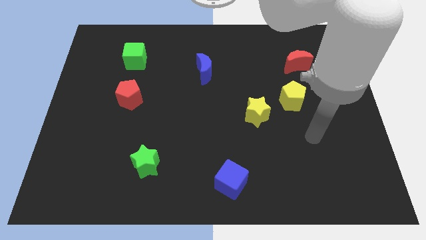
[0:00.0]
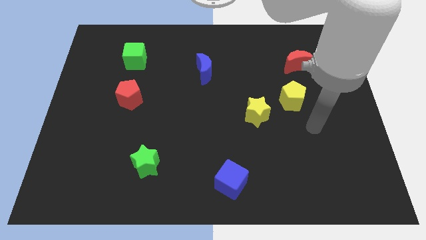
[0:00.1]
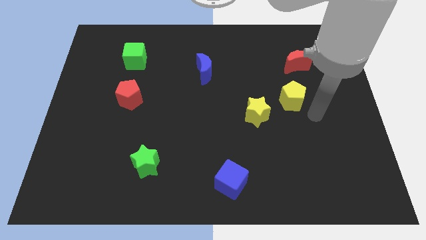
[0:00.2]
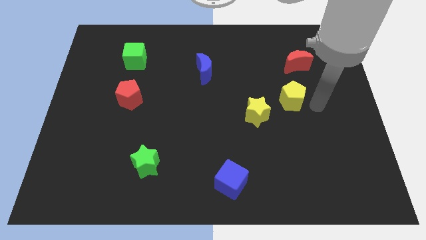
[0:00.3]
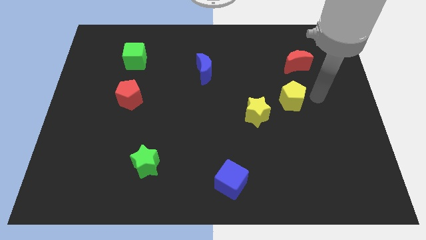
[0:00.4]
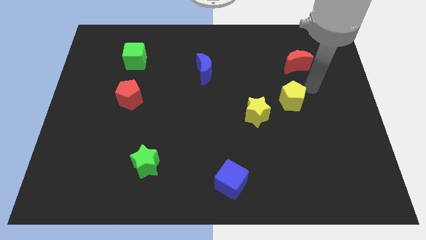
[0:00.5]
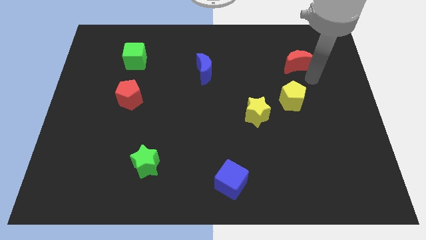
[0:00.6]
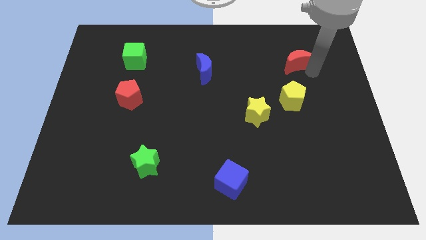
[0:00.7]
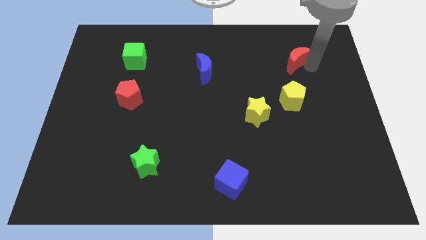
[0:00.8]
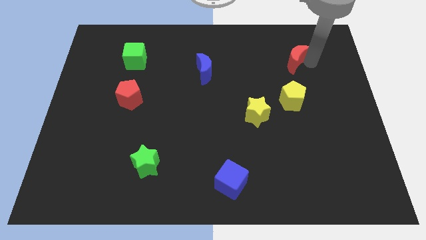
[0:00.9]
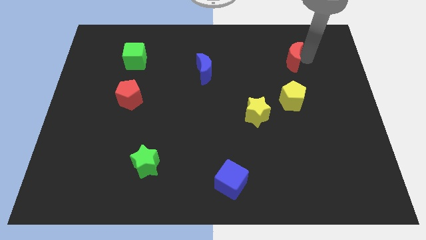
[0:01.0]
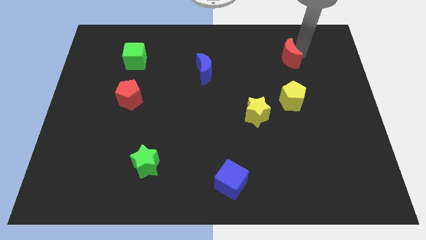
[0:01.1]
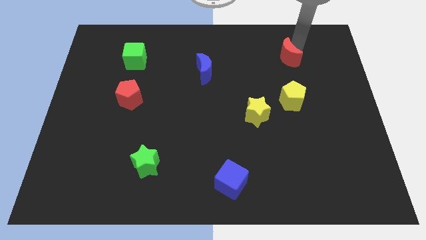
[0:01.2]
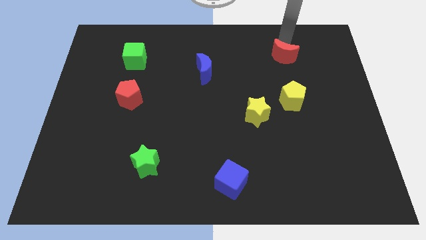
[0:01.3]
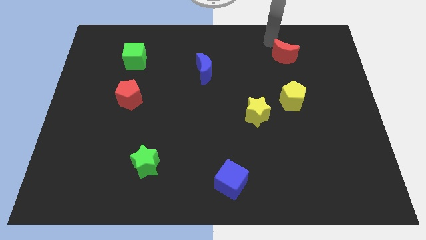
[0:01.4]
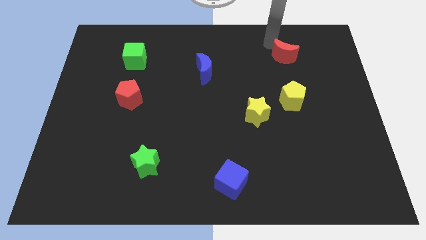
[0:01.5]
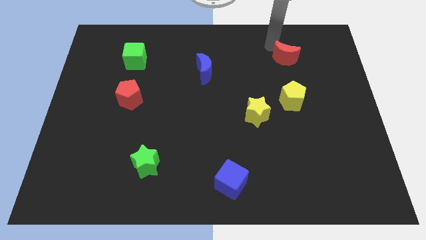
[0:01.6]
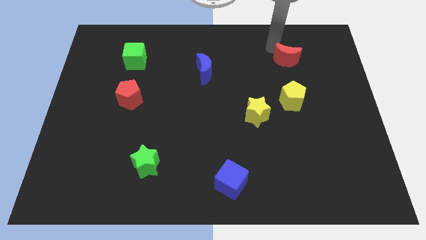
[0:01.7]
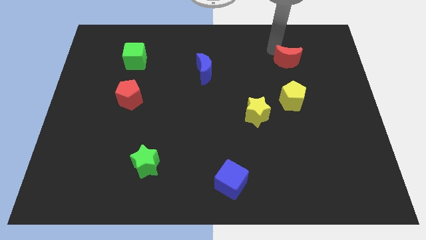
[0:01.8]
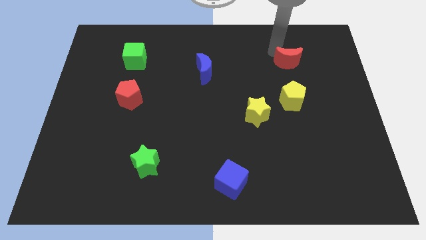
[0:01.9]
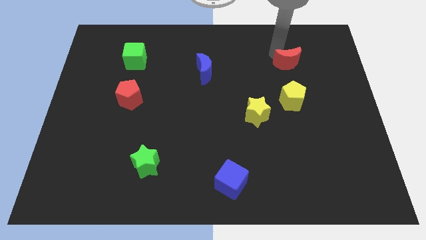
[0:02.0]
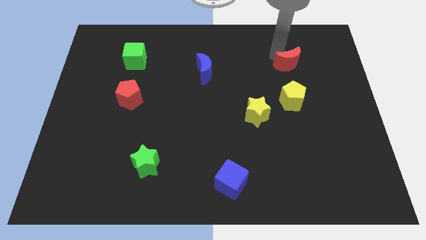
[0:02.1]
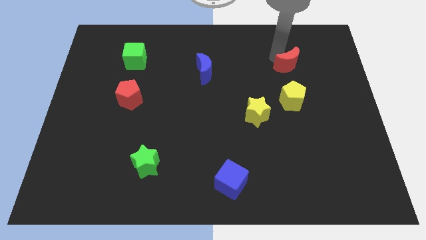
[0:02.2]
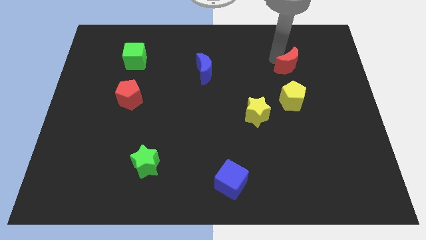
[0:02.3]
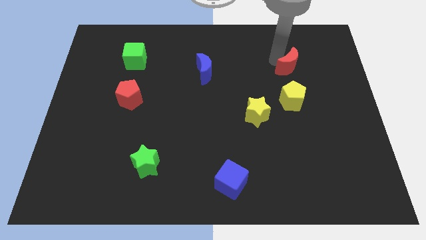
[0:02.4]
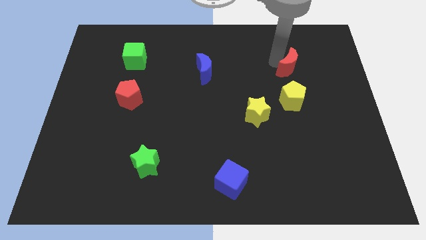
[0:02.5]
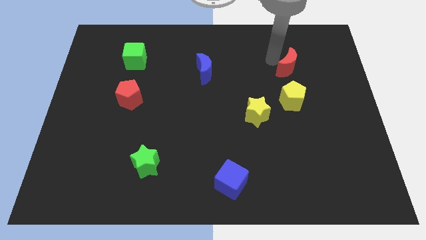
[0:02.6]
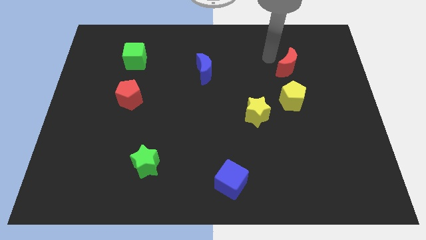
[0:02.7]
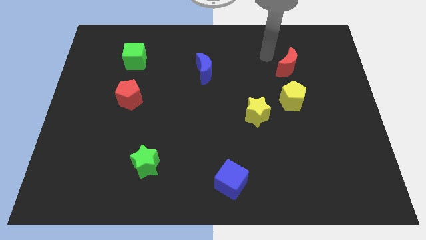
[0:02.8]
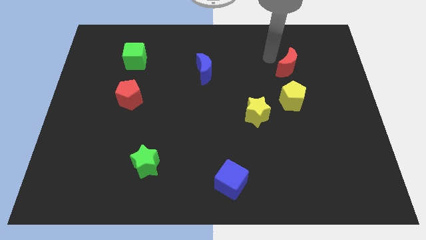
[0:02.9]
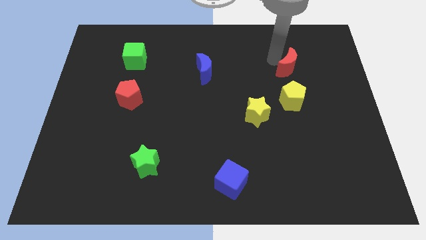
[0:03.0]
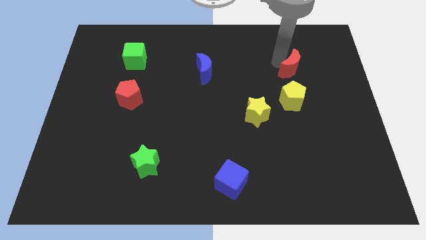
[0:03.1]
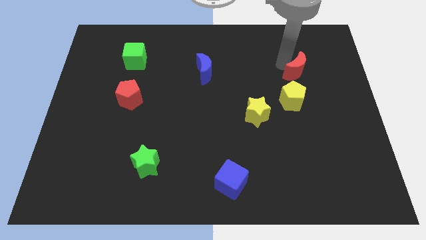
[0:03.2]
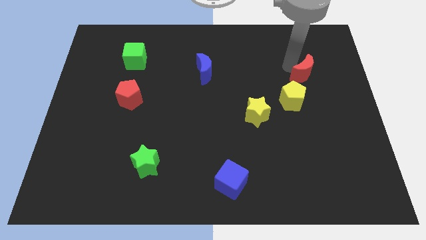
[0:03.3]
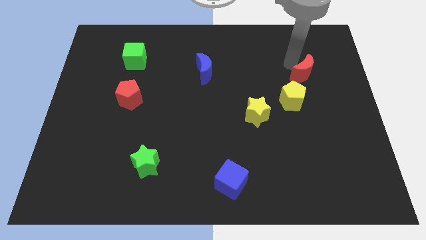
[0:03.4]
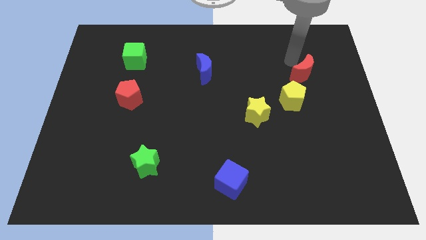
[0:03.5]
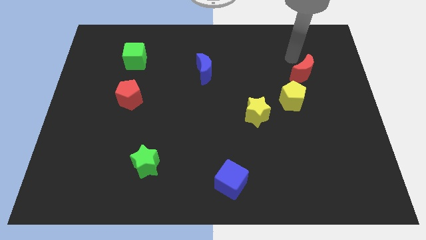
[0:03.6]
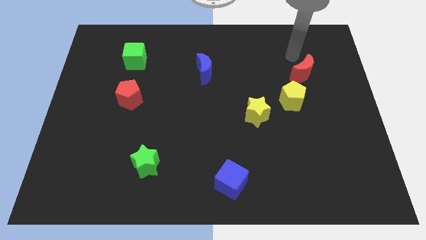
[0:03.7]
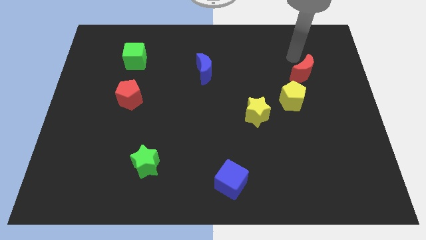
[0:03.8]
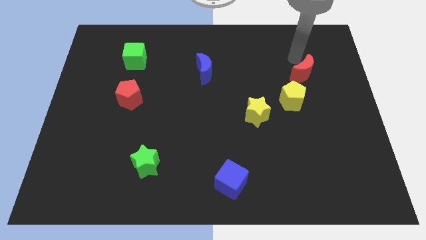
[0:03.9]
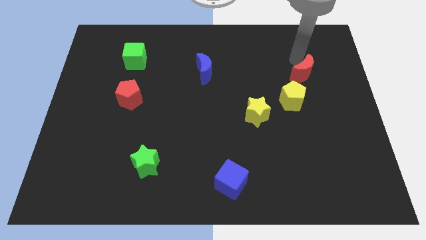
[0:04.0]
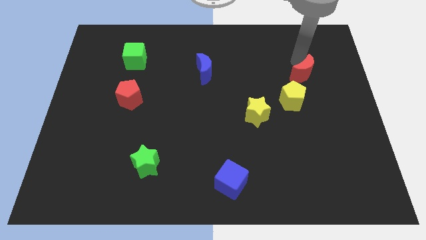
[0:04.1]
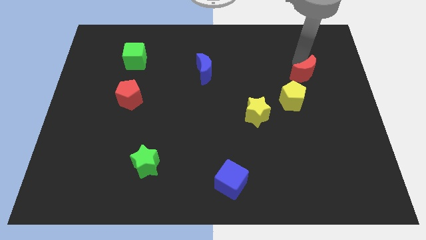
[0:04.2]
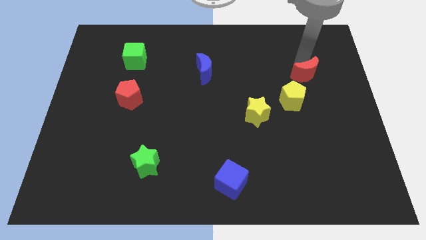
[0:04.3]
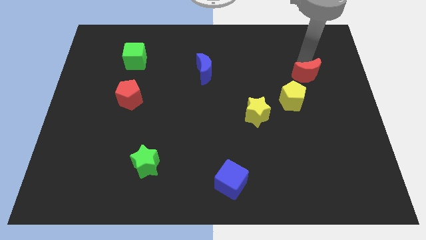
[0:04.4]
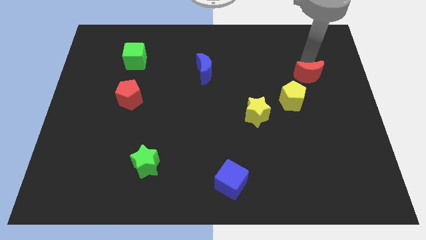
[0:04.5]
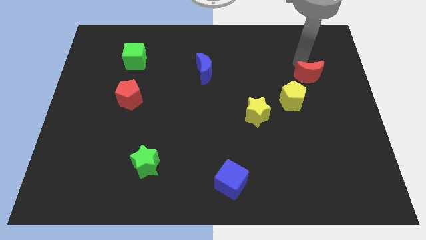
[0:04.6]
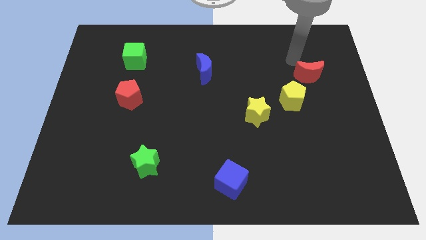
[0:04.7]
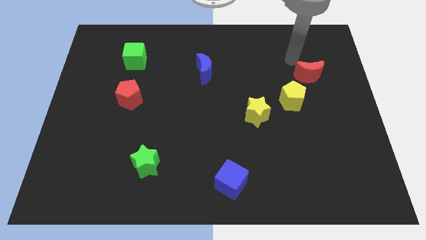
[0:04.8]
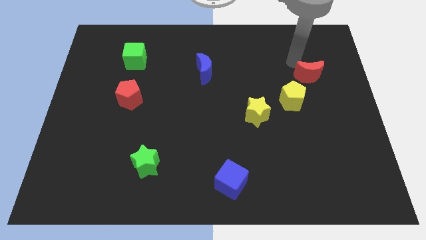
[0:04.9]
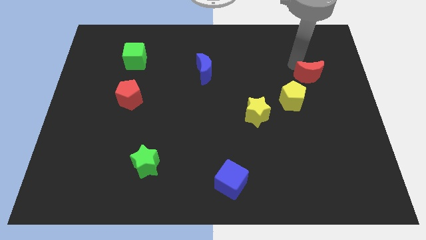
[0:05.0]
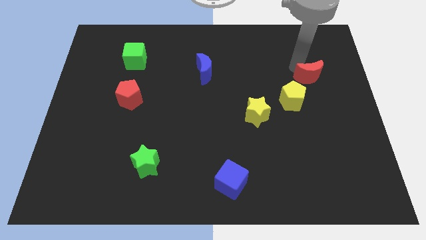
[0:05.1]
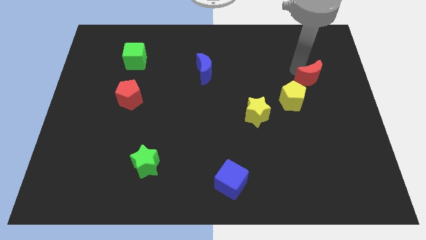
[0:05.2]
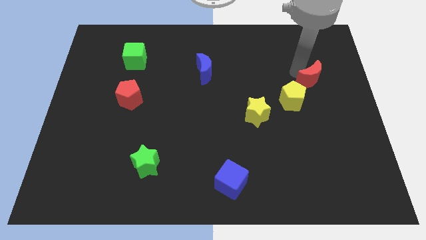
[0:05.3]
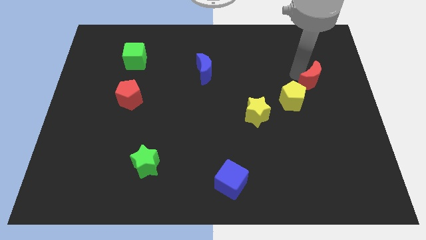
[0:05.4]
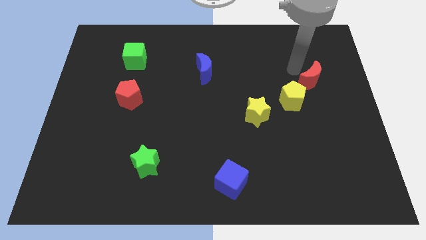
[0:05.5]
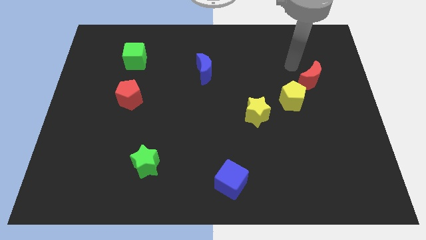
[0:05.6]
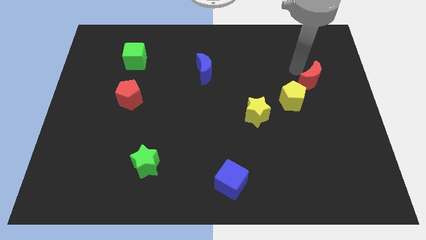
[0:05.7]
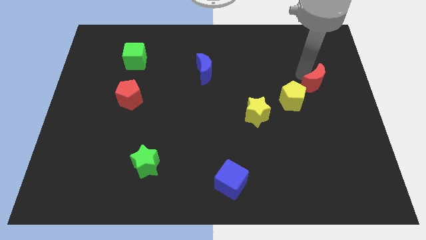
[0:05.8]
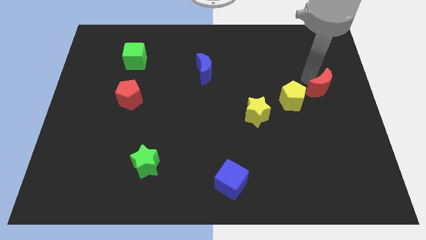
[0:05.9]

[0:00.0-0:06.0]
push the red moon right of the yellow pentagon

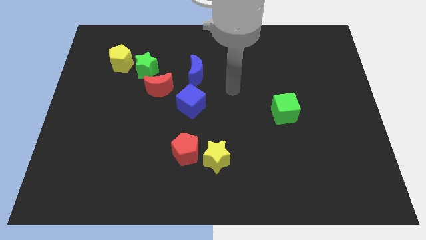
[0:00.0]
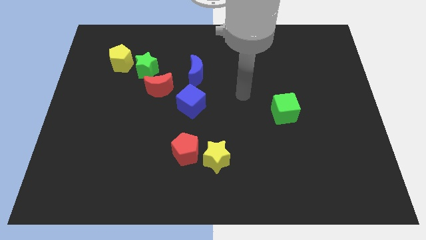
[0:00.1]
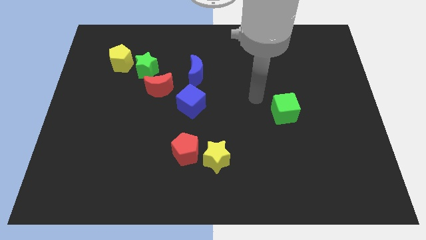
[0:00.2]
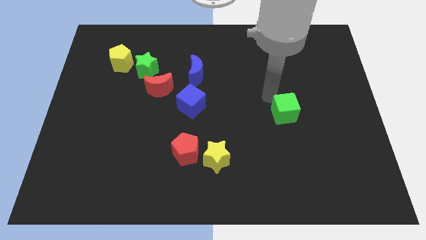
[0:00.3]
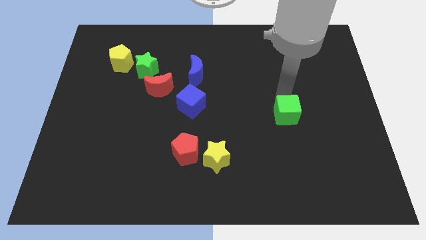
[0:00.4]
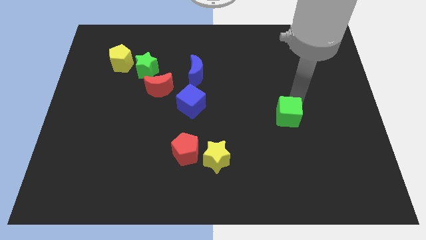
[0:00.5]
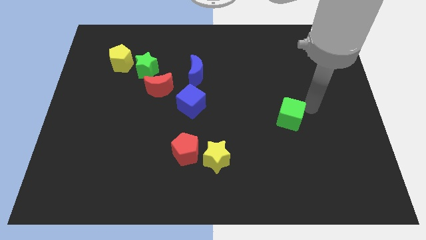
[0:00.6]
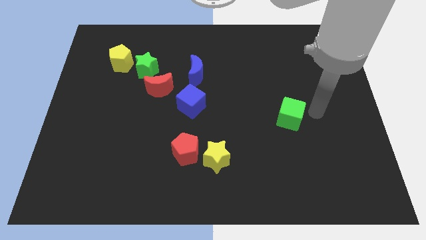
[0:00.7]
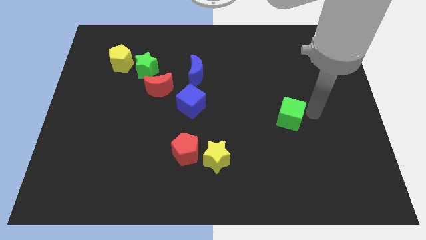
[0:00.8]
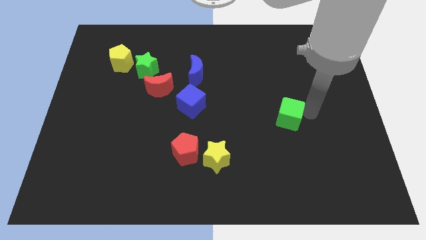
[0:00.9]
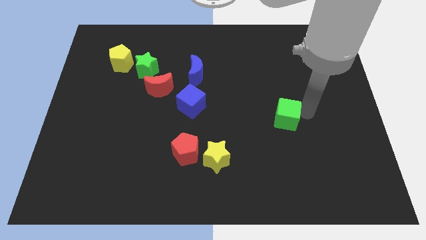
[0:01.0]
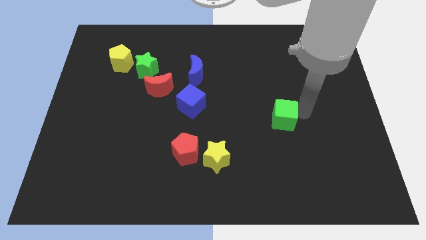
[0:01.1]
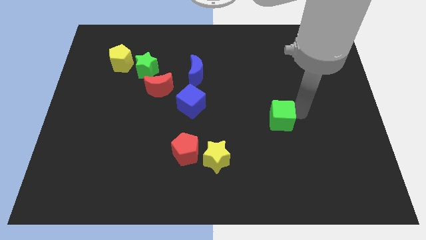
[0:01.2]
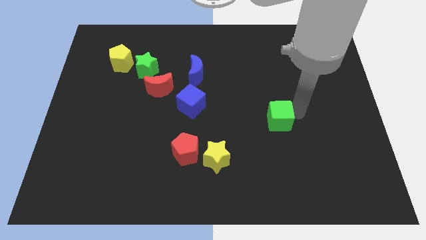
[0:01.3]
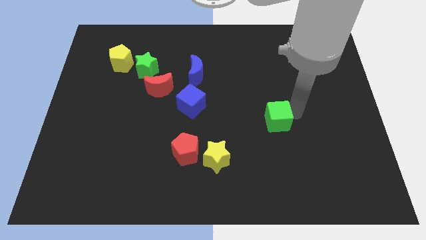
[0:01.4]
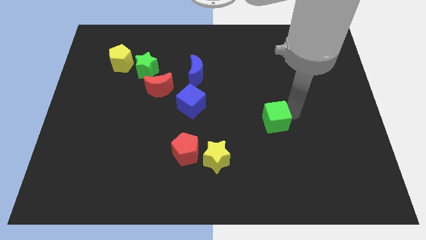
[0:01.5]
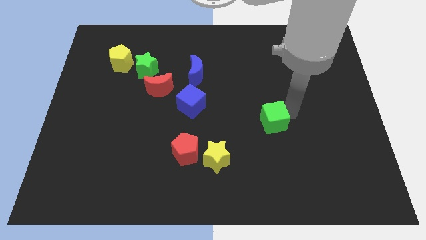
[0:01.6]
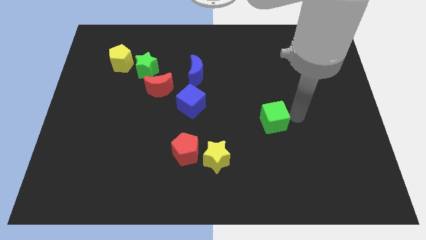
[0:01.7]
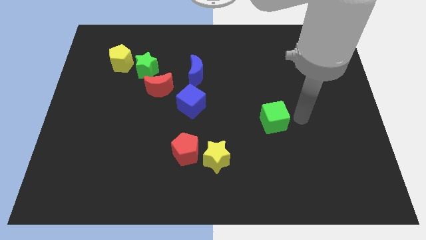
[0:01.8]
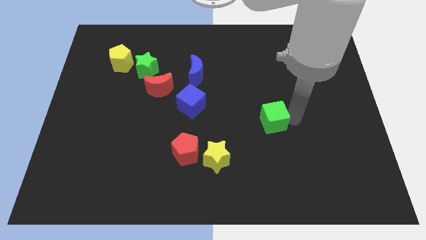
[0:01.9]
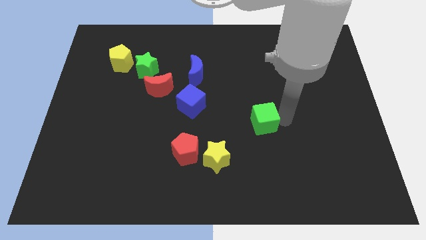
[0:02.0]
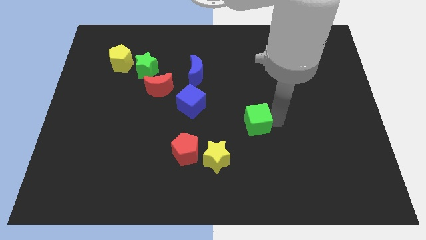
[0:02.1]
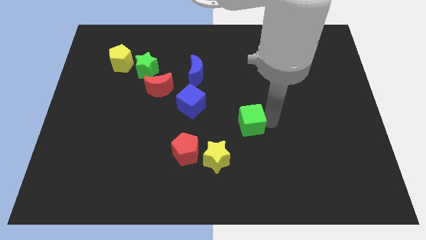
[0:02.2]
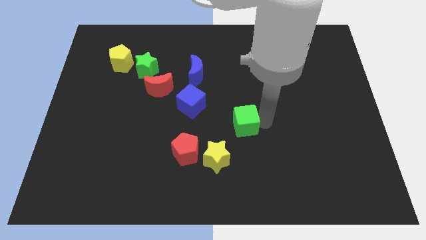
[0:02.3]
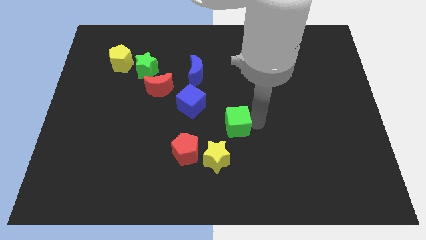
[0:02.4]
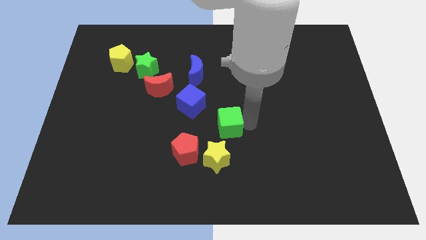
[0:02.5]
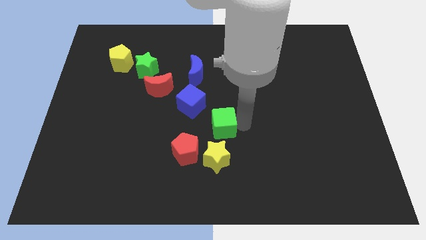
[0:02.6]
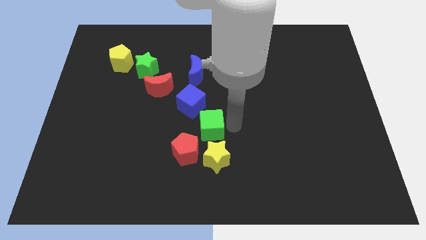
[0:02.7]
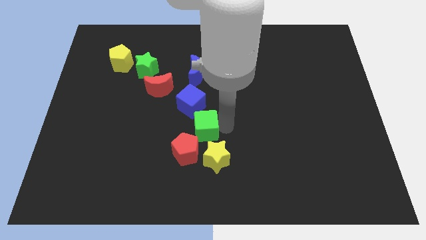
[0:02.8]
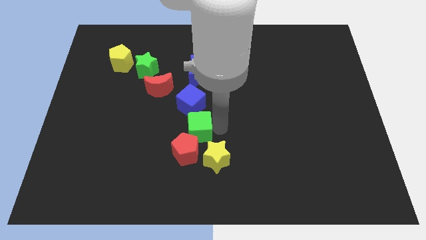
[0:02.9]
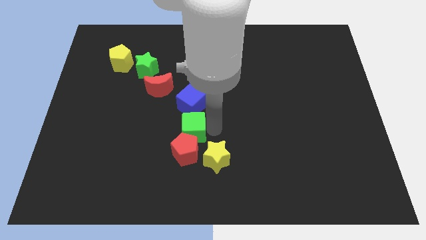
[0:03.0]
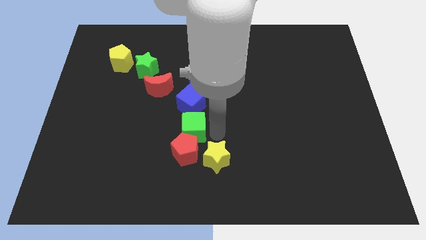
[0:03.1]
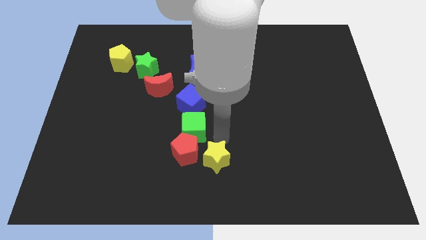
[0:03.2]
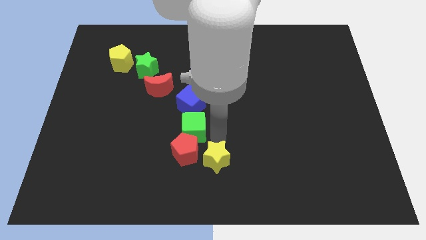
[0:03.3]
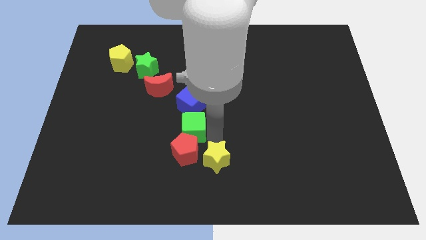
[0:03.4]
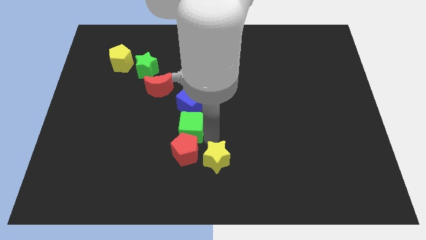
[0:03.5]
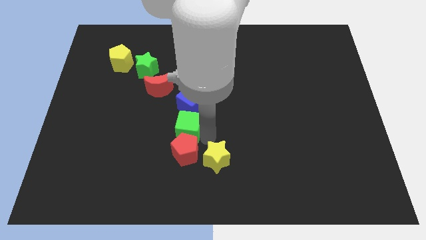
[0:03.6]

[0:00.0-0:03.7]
move the green cube to the bottom left side of the blue cube
